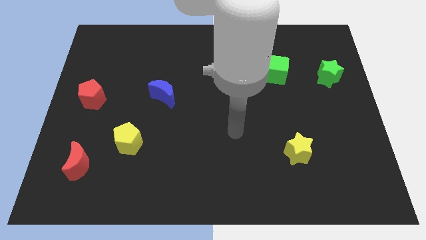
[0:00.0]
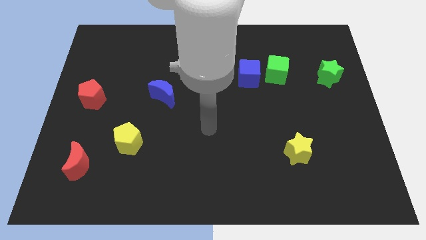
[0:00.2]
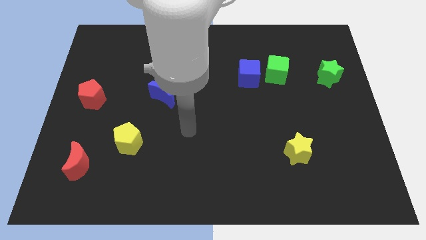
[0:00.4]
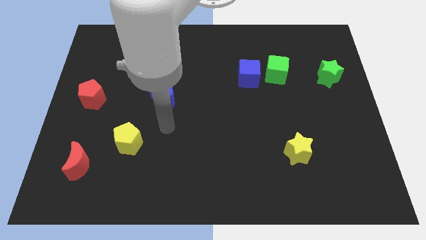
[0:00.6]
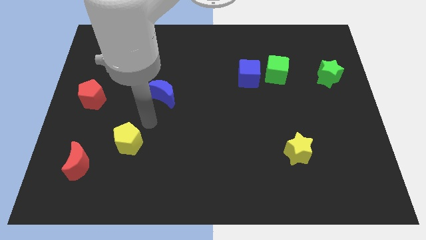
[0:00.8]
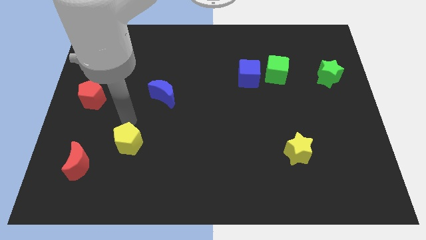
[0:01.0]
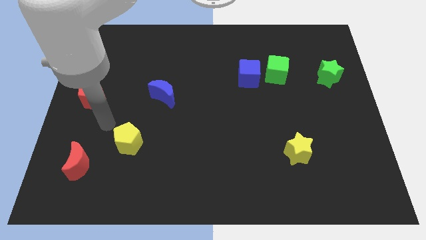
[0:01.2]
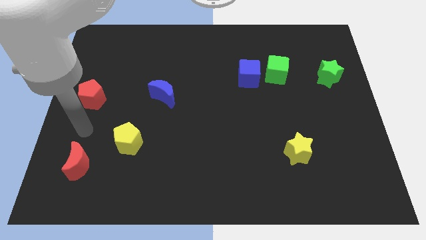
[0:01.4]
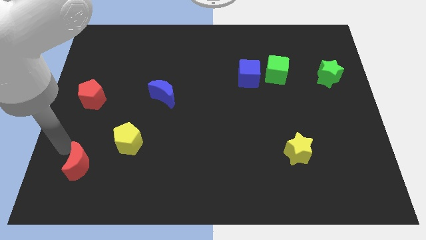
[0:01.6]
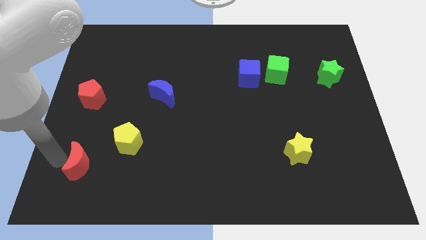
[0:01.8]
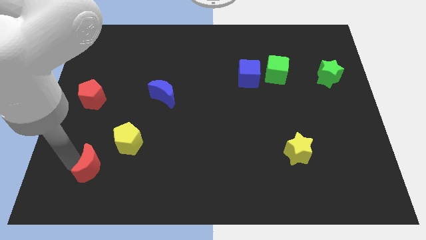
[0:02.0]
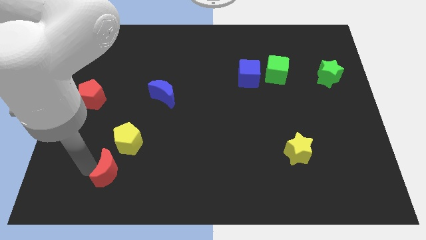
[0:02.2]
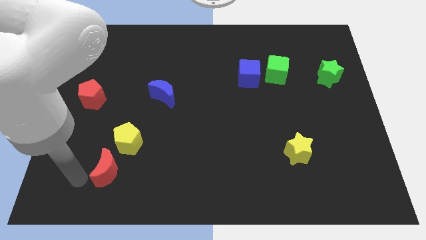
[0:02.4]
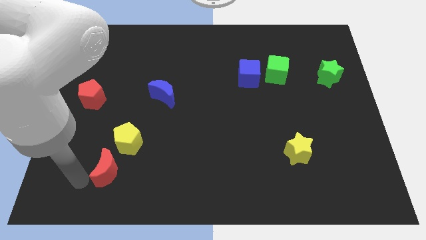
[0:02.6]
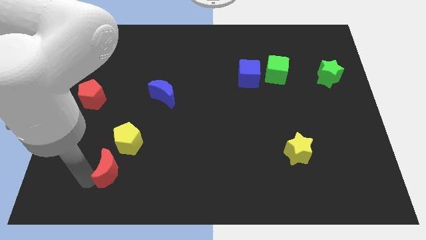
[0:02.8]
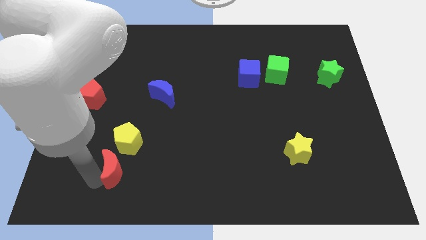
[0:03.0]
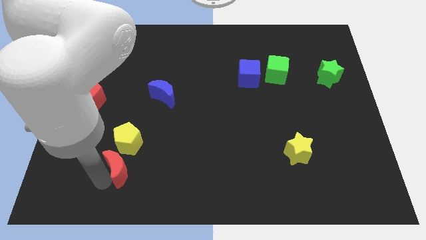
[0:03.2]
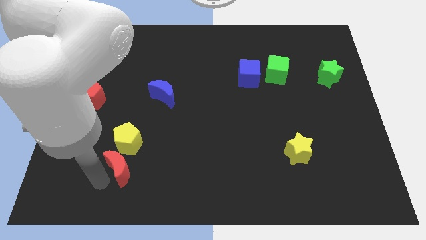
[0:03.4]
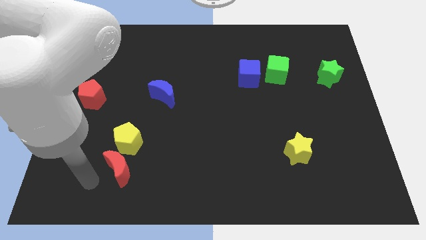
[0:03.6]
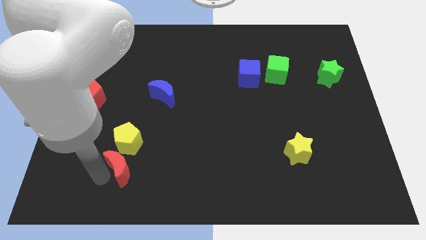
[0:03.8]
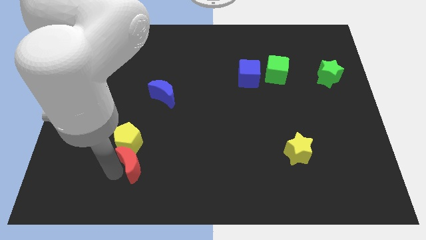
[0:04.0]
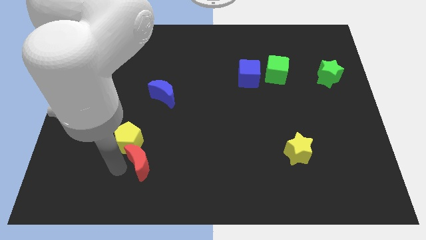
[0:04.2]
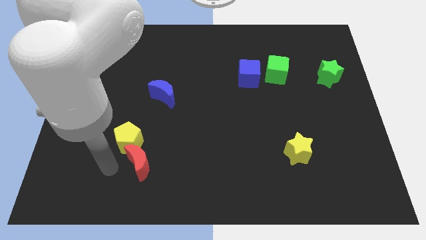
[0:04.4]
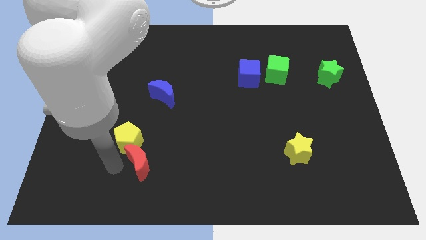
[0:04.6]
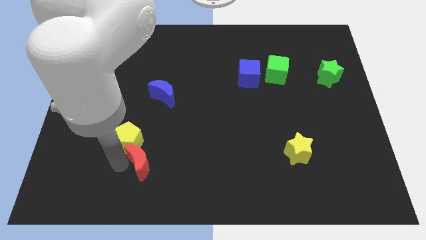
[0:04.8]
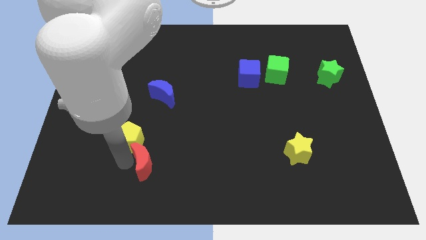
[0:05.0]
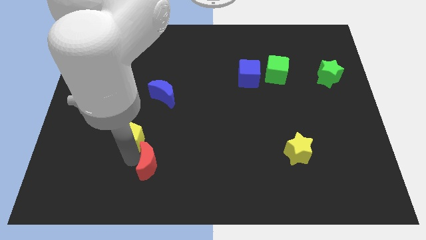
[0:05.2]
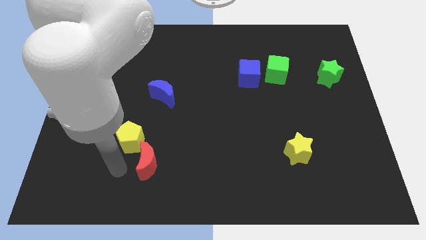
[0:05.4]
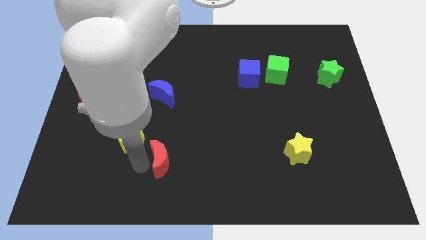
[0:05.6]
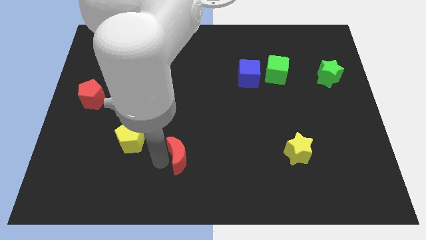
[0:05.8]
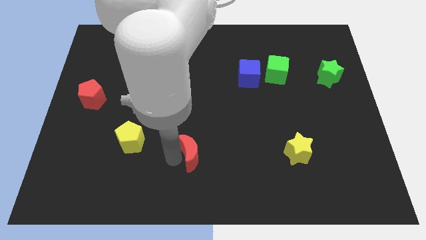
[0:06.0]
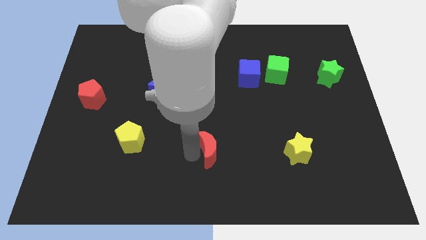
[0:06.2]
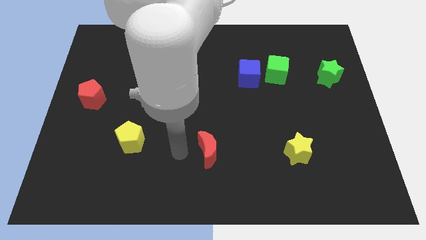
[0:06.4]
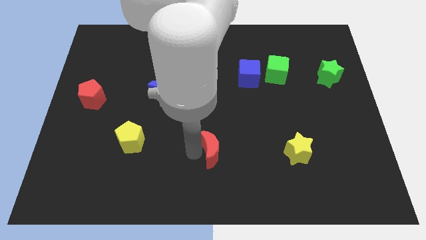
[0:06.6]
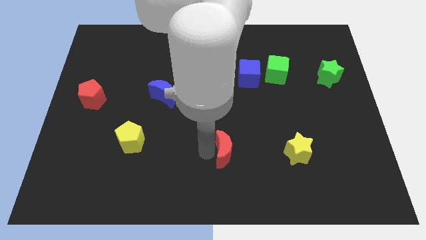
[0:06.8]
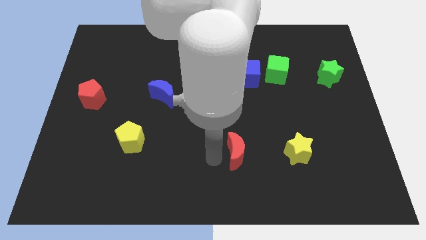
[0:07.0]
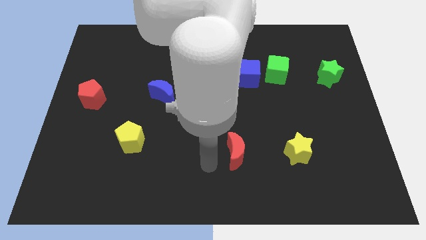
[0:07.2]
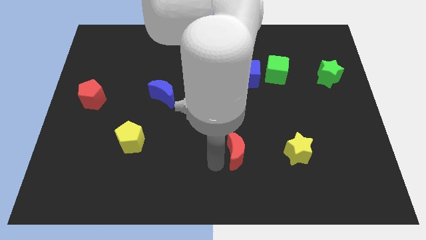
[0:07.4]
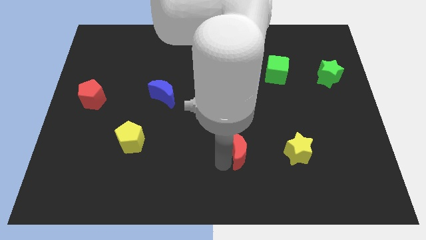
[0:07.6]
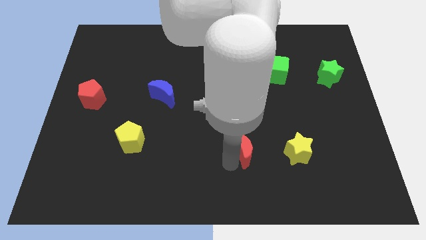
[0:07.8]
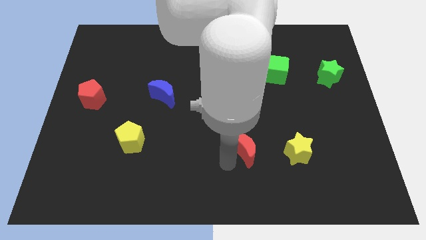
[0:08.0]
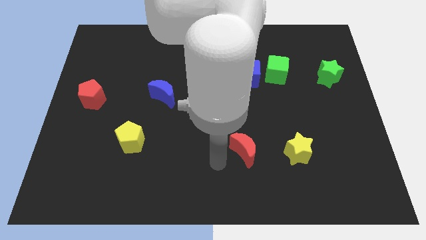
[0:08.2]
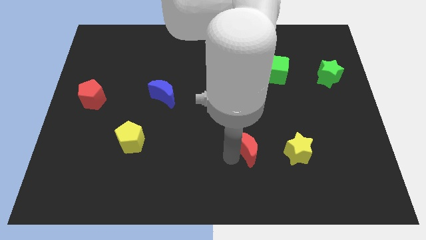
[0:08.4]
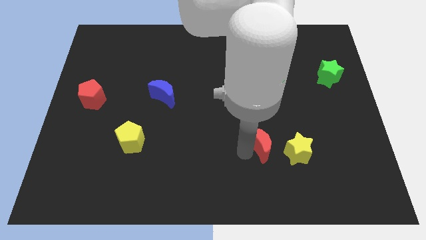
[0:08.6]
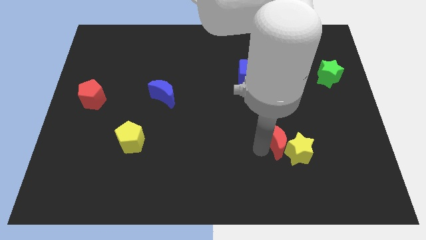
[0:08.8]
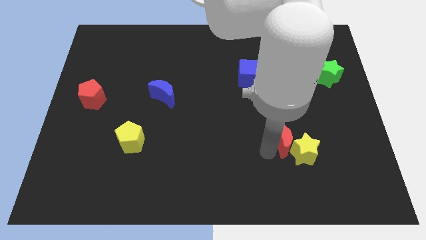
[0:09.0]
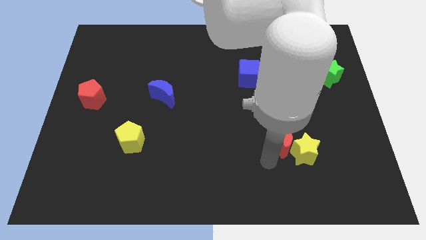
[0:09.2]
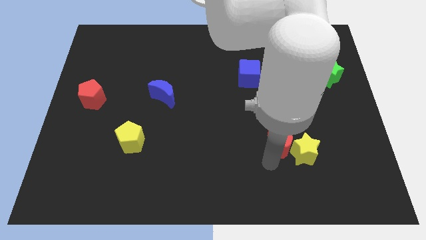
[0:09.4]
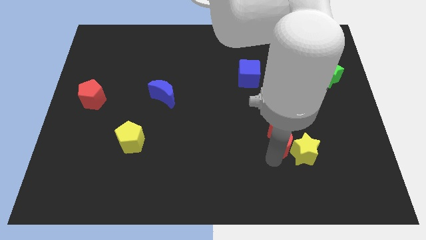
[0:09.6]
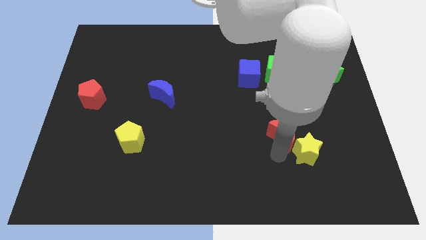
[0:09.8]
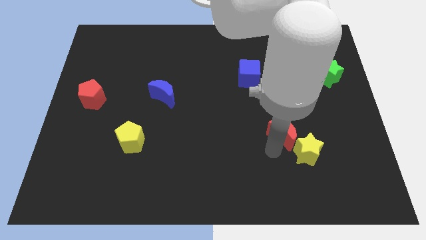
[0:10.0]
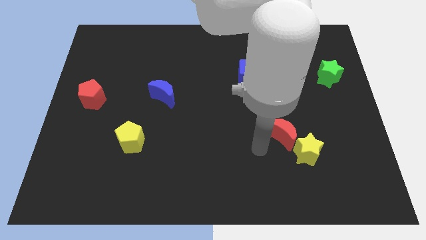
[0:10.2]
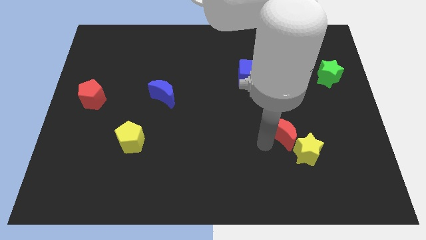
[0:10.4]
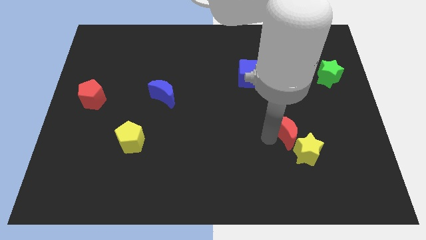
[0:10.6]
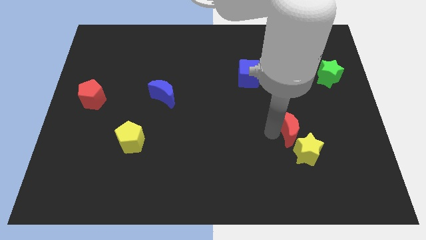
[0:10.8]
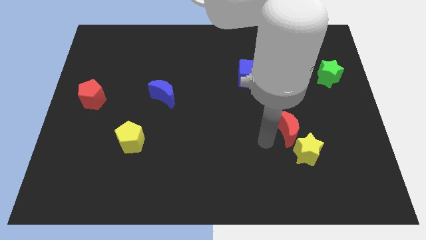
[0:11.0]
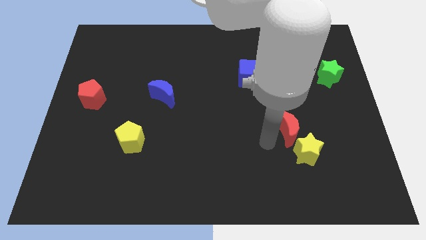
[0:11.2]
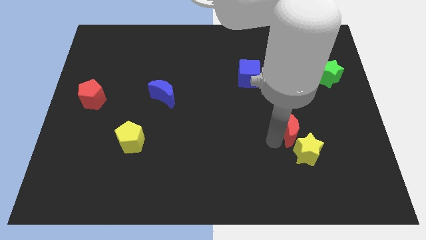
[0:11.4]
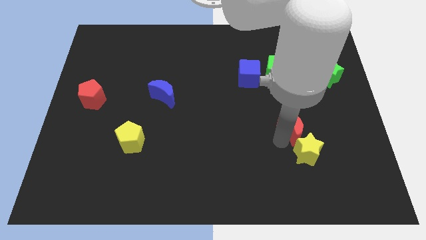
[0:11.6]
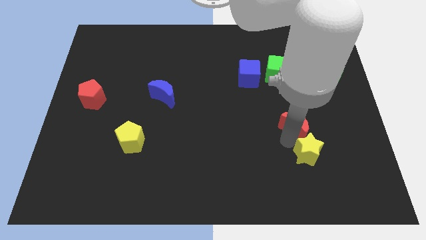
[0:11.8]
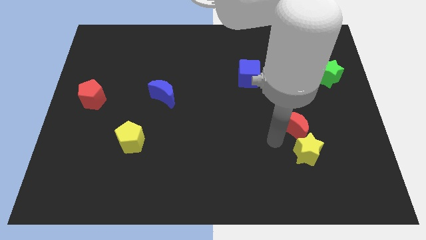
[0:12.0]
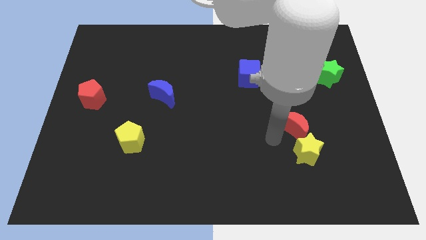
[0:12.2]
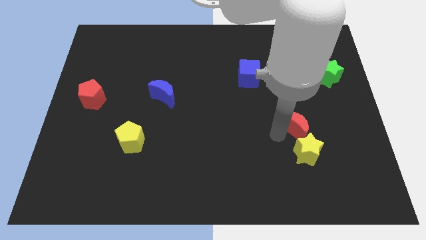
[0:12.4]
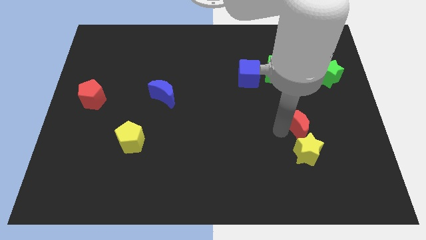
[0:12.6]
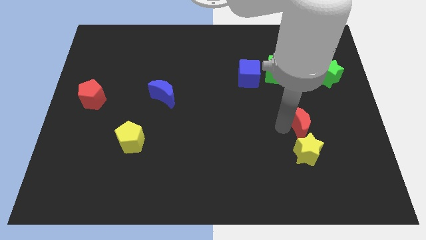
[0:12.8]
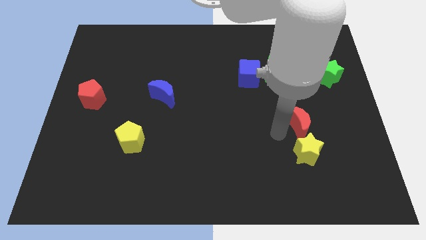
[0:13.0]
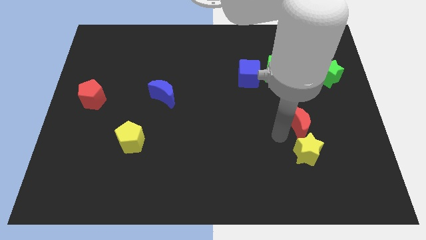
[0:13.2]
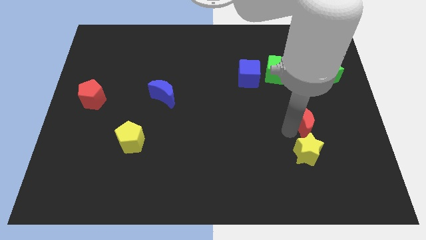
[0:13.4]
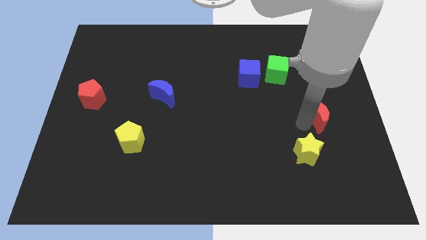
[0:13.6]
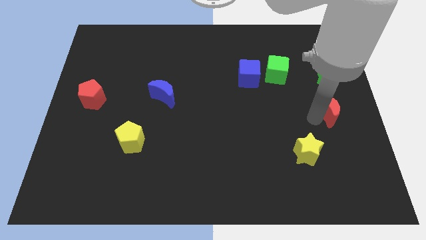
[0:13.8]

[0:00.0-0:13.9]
put the red moon to the right side of the board
